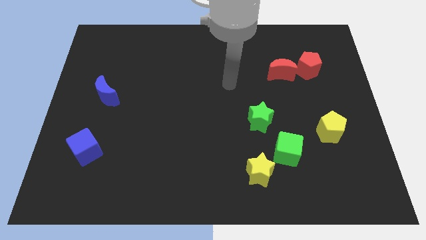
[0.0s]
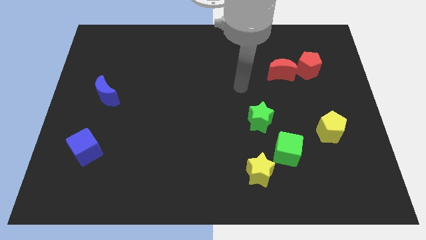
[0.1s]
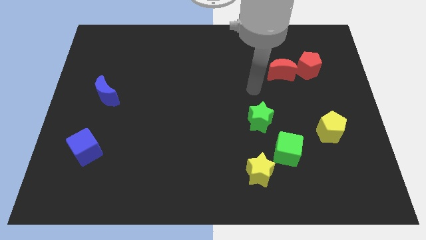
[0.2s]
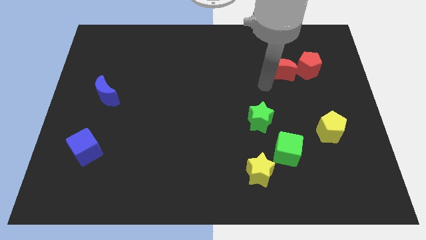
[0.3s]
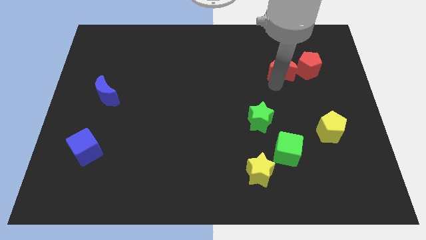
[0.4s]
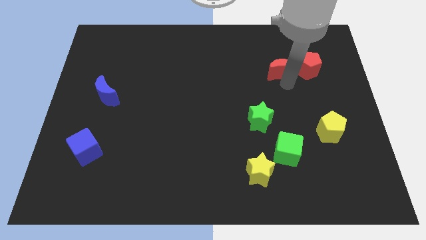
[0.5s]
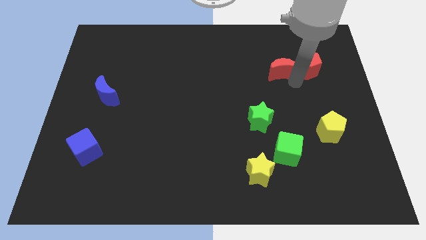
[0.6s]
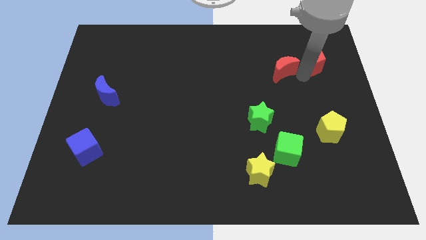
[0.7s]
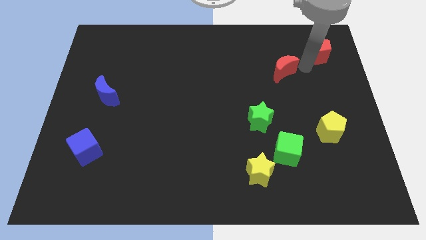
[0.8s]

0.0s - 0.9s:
move the red moon away from the red pentagon

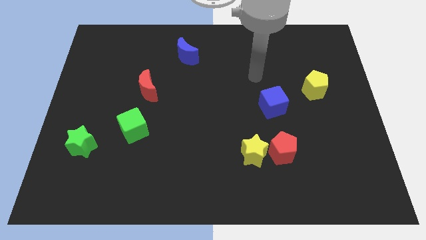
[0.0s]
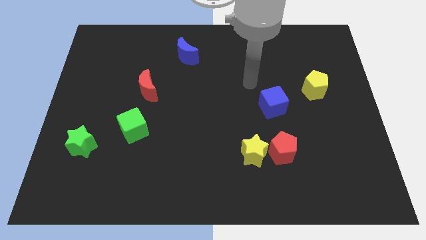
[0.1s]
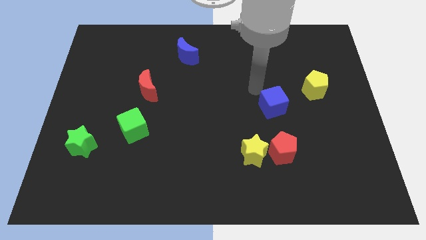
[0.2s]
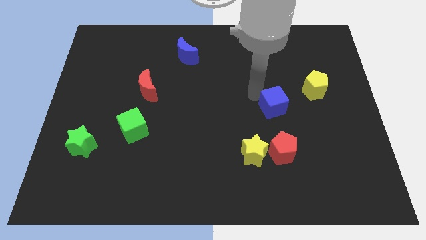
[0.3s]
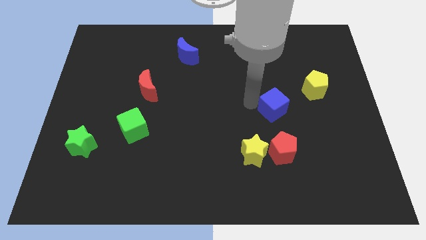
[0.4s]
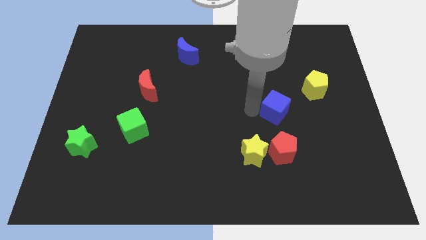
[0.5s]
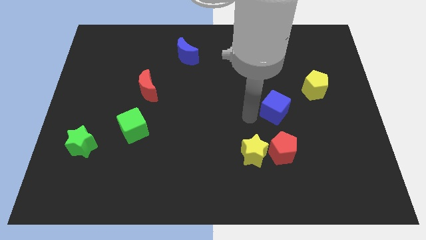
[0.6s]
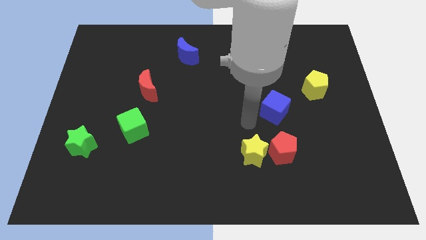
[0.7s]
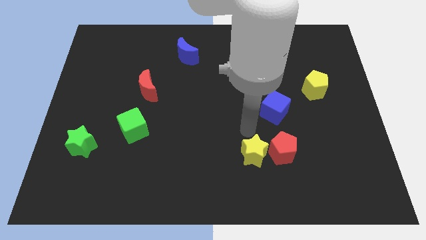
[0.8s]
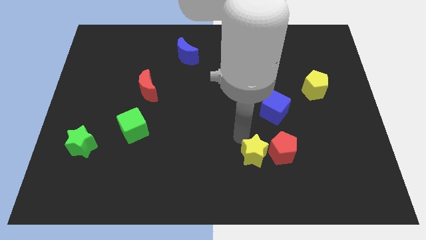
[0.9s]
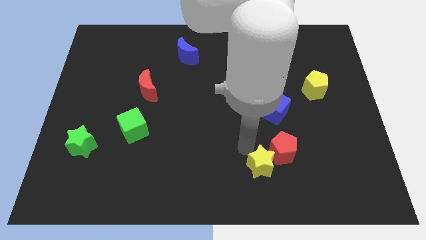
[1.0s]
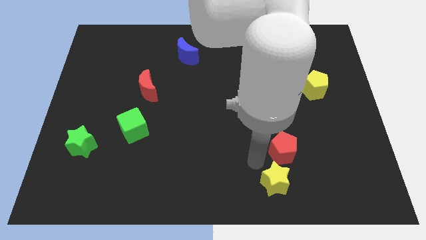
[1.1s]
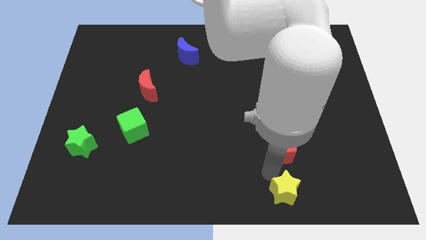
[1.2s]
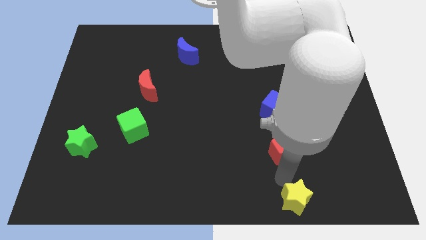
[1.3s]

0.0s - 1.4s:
separate the red pentagon from the yellow star

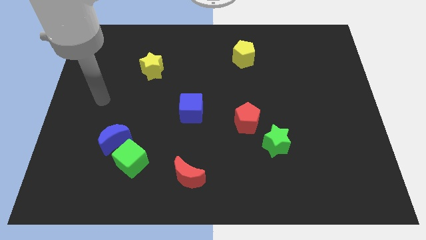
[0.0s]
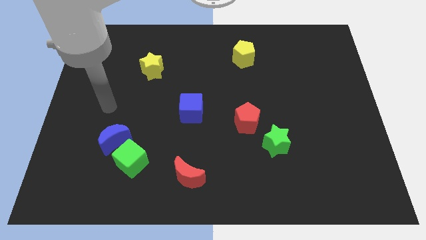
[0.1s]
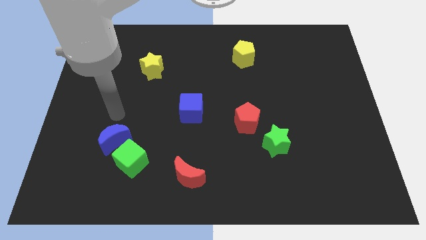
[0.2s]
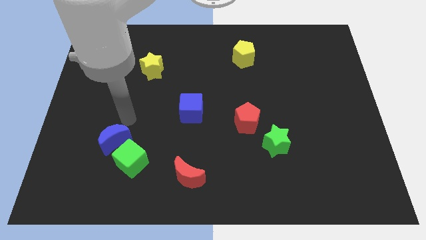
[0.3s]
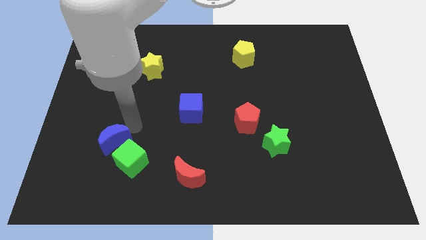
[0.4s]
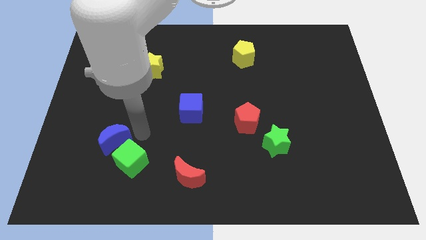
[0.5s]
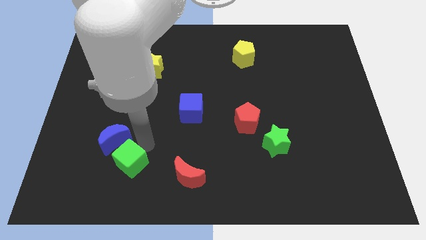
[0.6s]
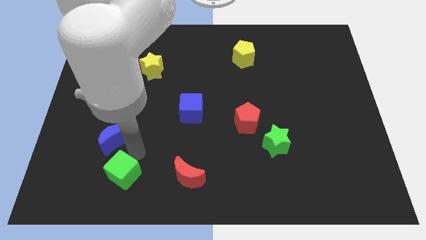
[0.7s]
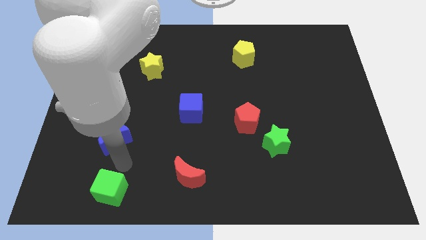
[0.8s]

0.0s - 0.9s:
move the blue moon away from the green cube

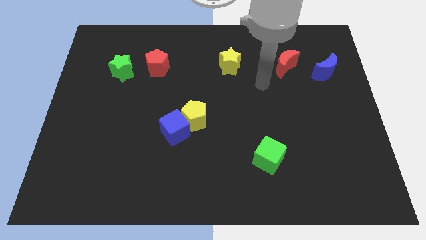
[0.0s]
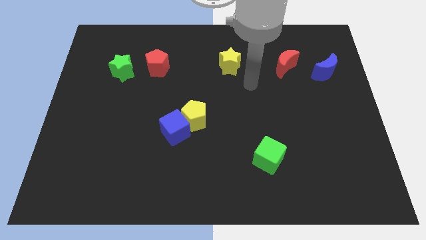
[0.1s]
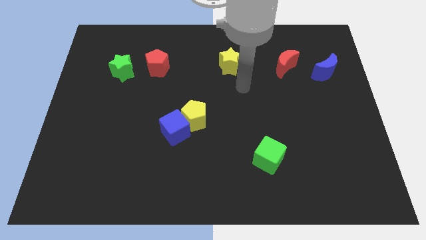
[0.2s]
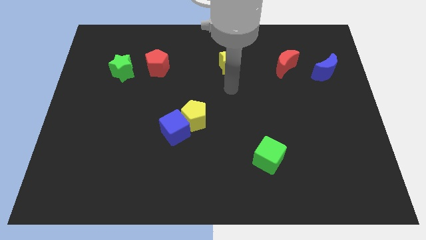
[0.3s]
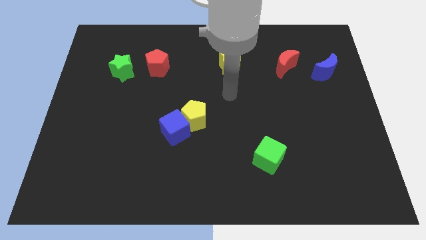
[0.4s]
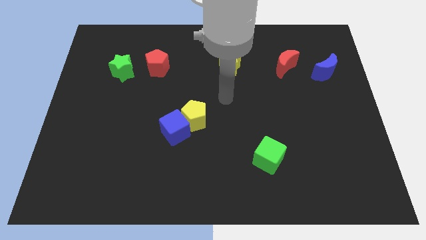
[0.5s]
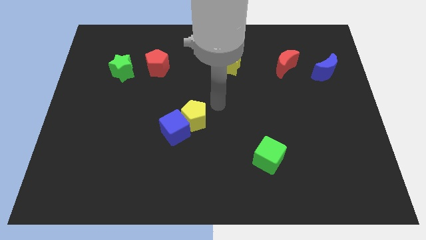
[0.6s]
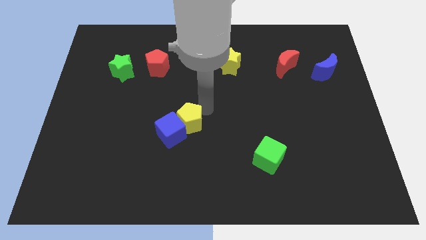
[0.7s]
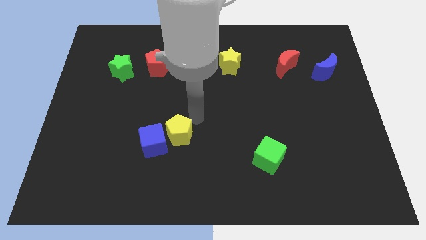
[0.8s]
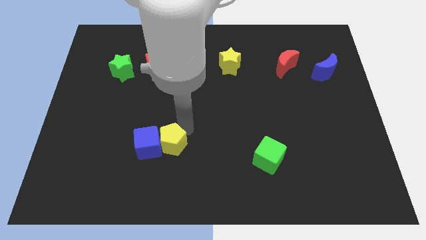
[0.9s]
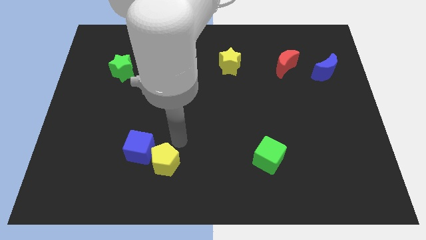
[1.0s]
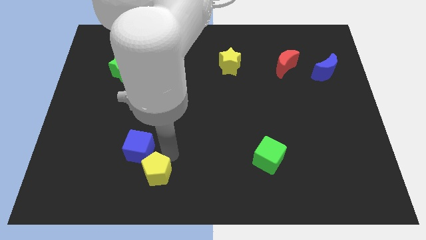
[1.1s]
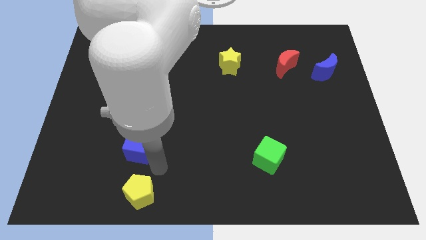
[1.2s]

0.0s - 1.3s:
move the blue cube away from the yellow pentagon

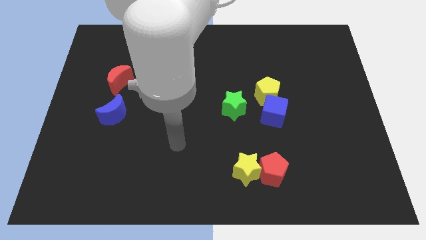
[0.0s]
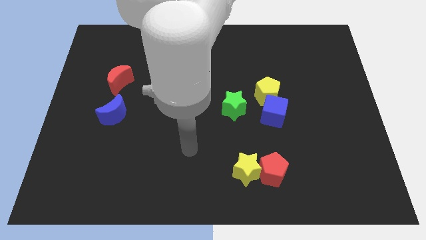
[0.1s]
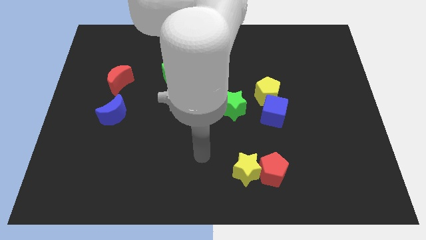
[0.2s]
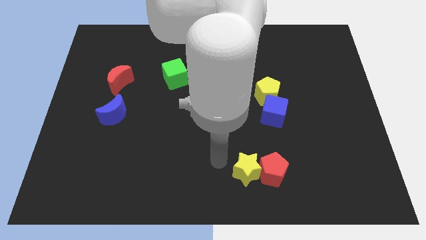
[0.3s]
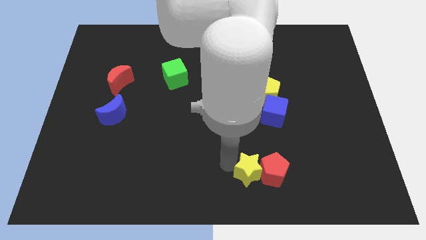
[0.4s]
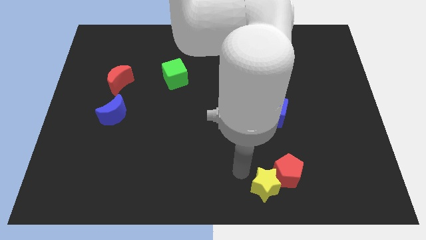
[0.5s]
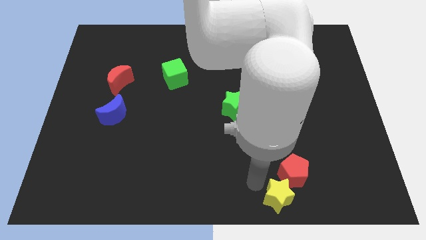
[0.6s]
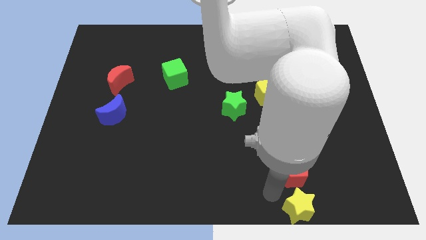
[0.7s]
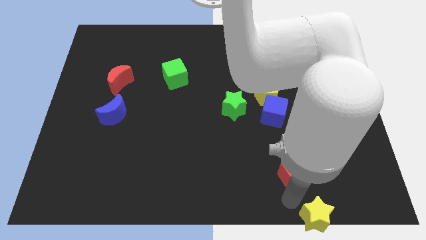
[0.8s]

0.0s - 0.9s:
move the red pentagon away from the yellow star

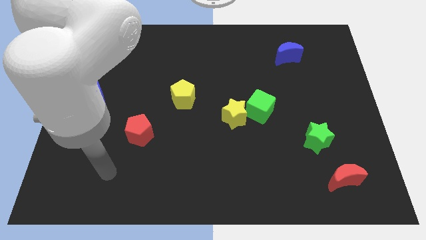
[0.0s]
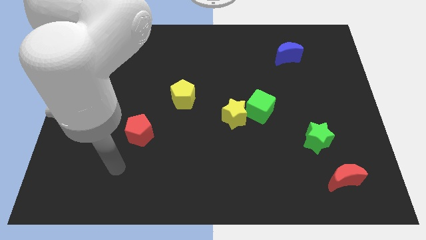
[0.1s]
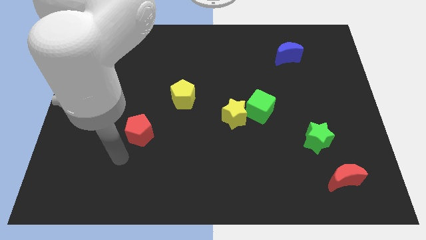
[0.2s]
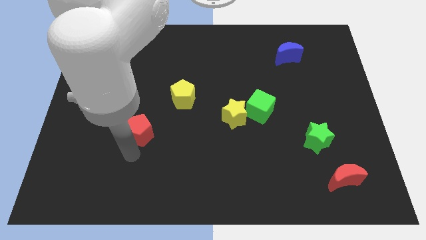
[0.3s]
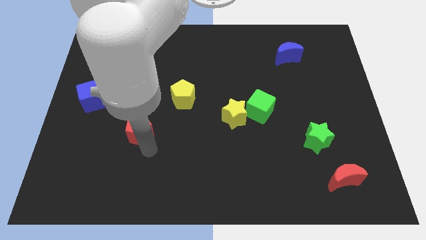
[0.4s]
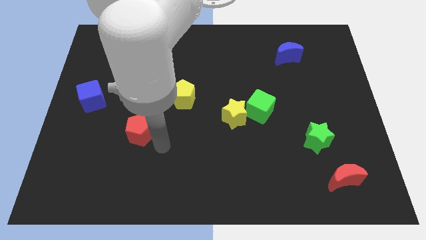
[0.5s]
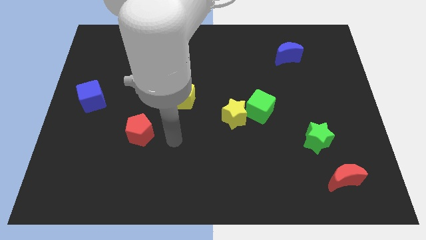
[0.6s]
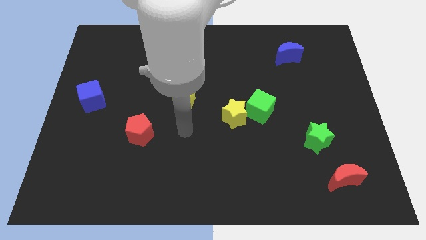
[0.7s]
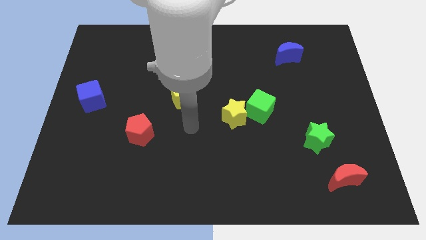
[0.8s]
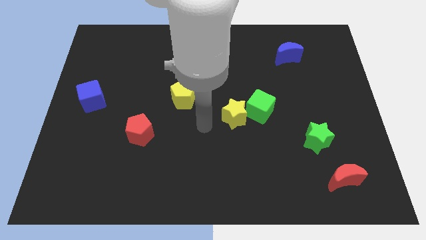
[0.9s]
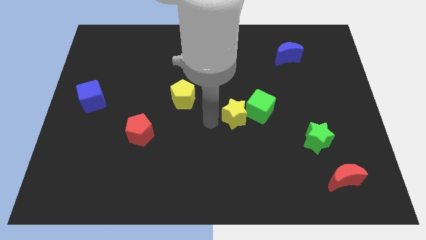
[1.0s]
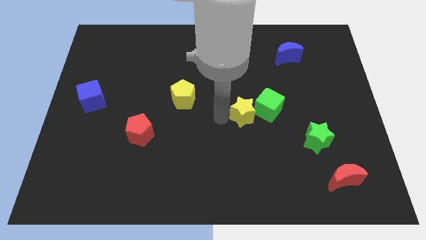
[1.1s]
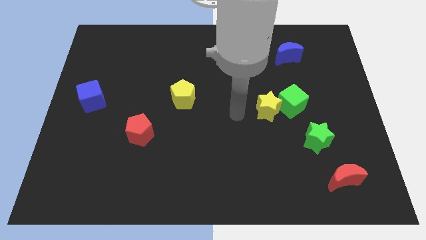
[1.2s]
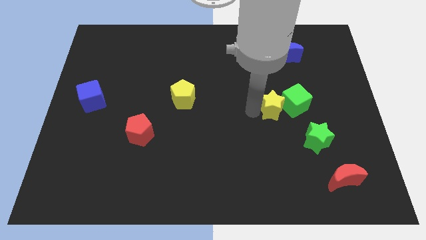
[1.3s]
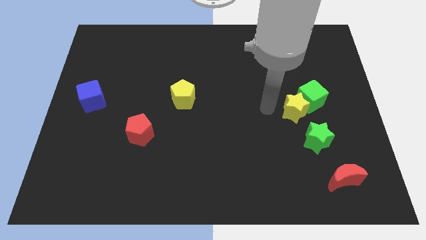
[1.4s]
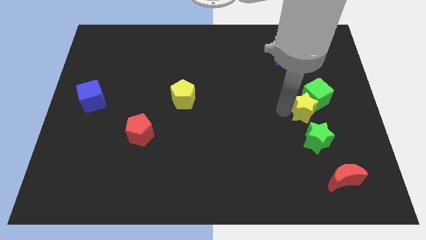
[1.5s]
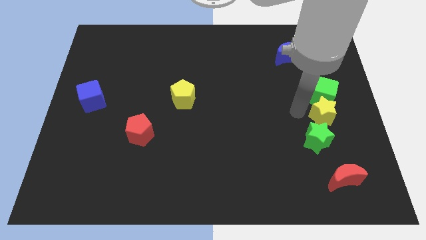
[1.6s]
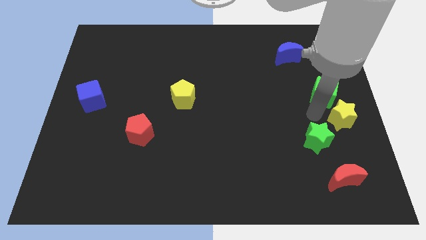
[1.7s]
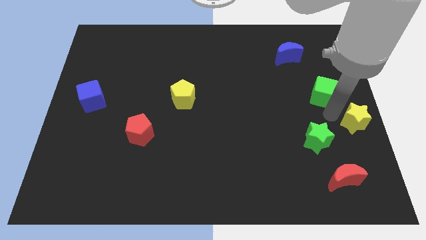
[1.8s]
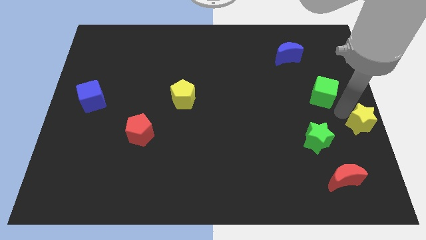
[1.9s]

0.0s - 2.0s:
pull the green cube apart from the yellow star

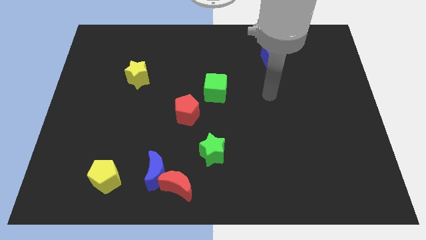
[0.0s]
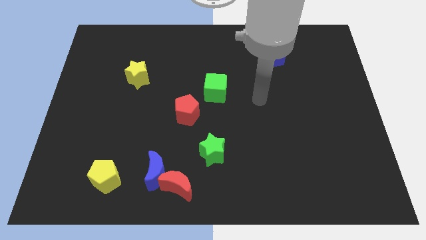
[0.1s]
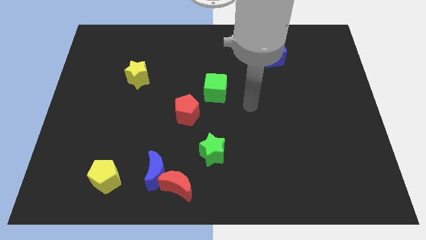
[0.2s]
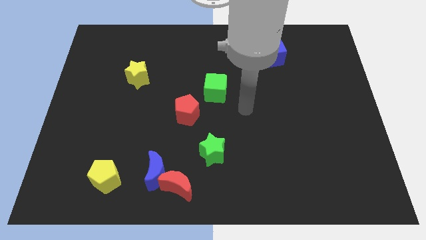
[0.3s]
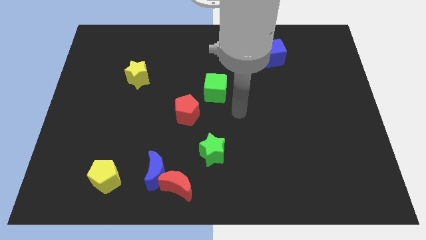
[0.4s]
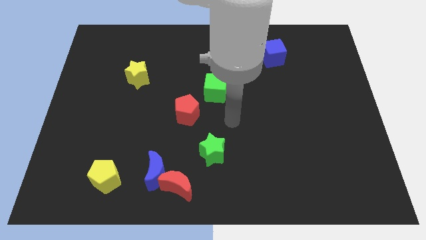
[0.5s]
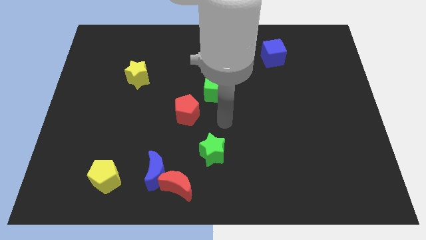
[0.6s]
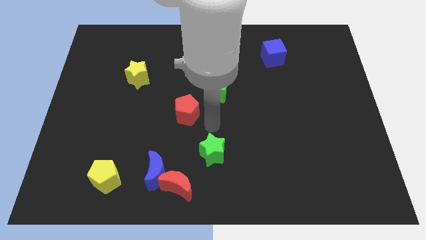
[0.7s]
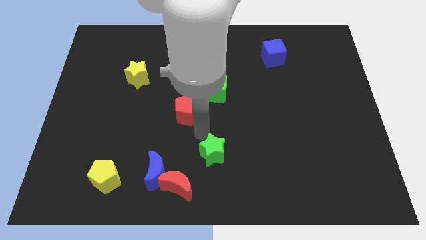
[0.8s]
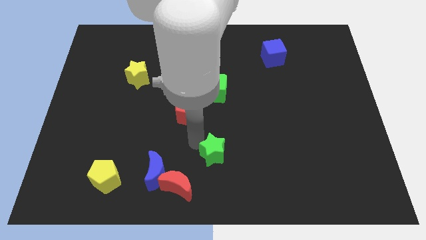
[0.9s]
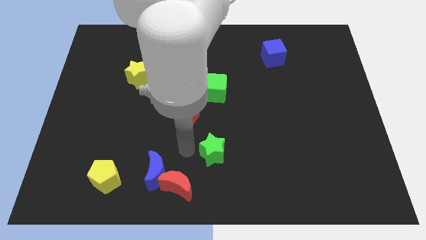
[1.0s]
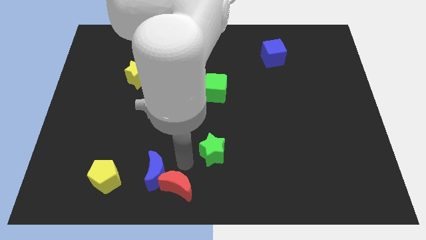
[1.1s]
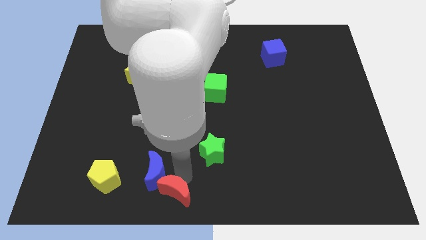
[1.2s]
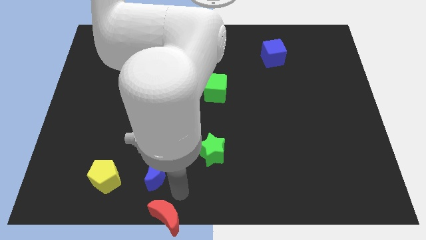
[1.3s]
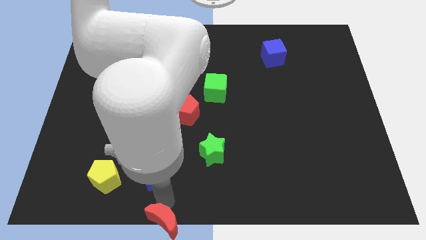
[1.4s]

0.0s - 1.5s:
move the blue moon away from the red moon

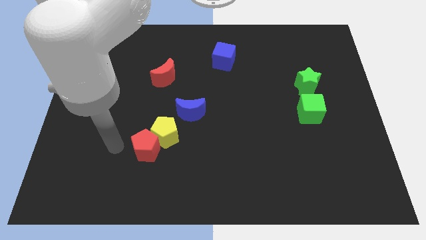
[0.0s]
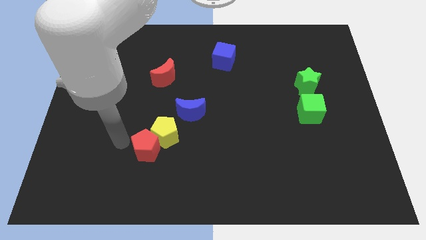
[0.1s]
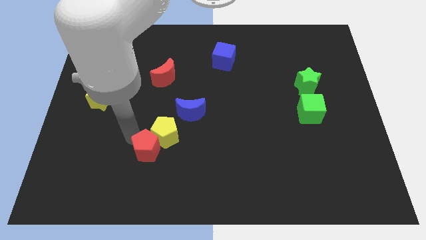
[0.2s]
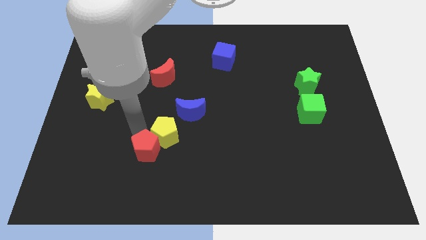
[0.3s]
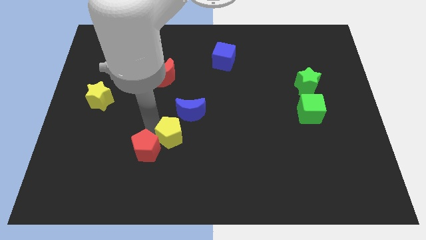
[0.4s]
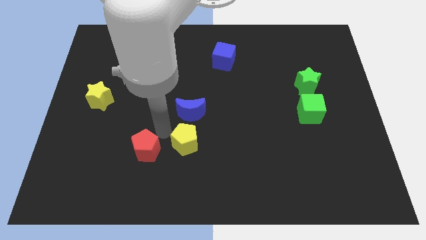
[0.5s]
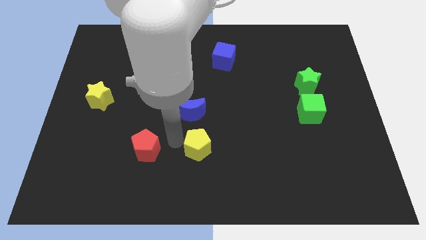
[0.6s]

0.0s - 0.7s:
separate the red pentagon from the yellow pentagon
